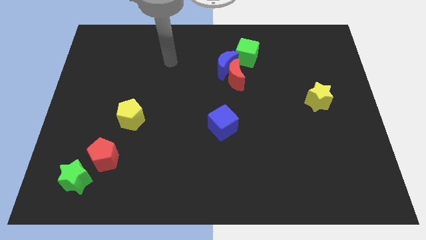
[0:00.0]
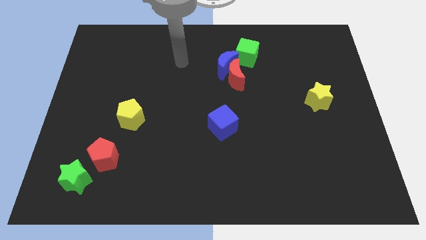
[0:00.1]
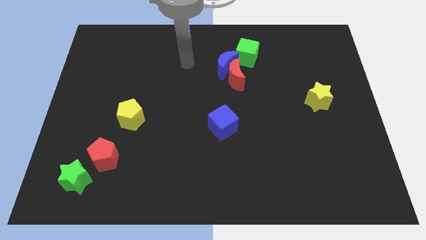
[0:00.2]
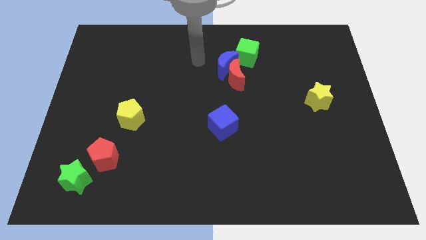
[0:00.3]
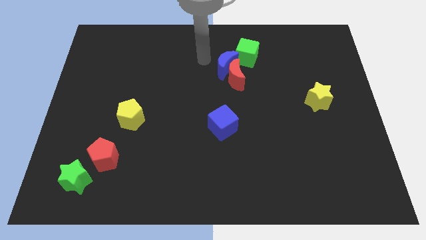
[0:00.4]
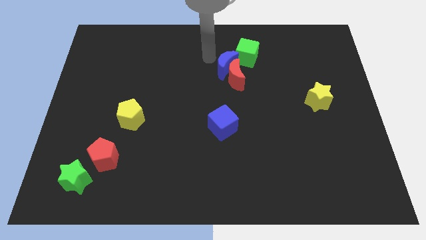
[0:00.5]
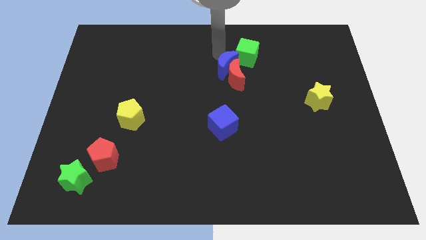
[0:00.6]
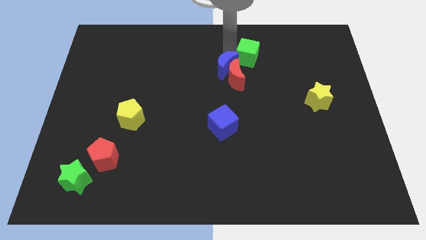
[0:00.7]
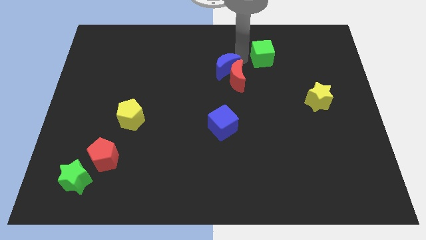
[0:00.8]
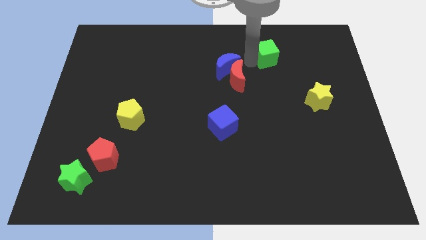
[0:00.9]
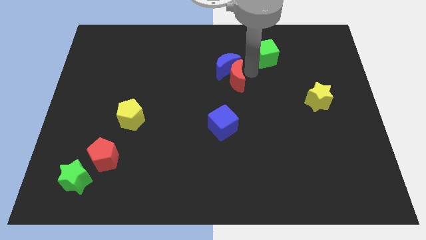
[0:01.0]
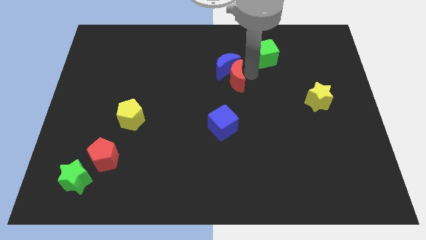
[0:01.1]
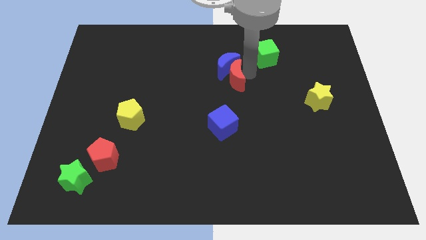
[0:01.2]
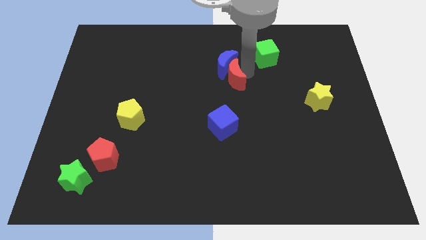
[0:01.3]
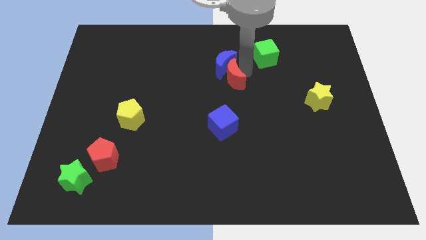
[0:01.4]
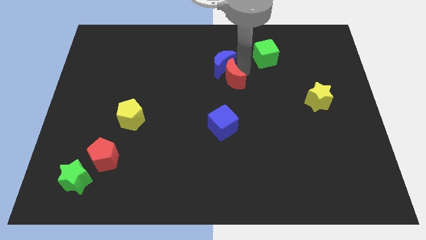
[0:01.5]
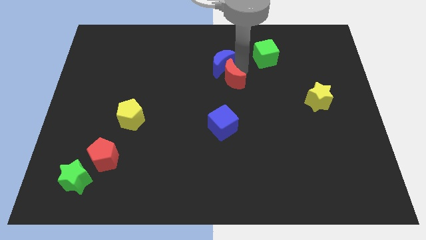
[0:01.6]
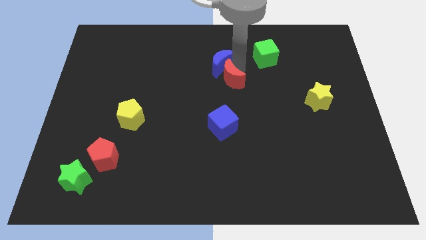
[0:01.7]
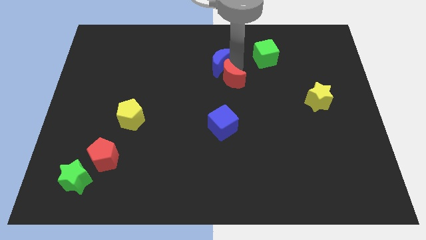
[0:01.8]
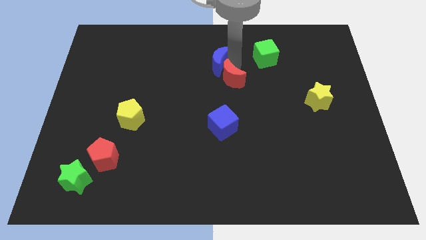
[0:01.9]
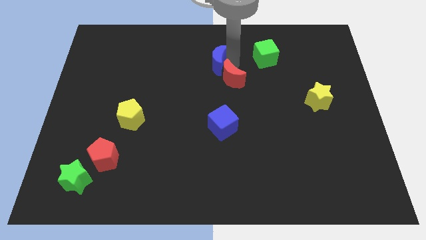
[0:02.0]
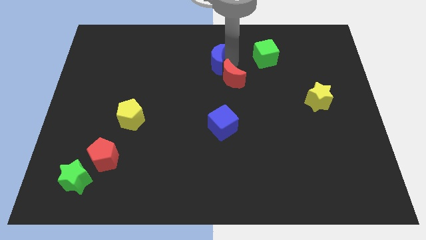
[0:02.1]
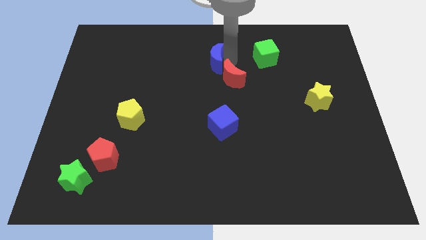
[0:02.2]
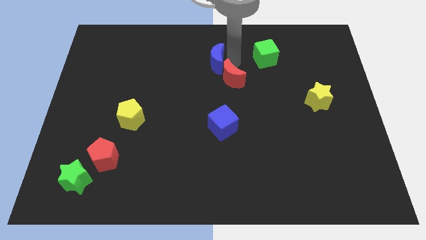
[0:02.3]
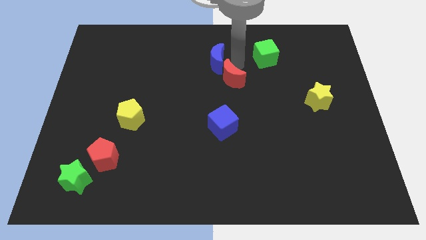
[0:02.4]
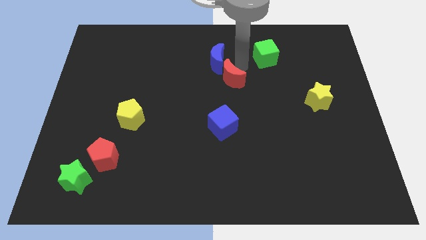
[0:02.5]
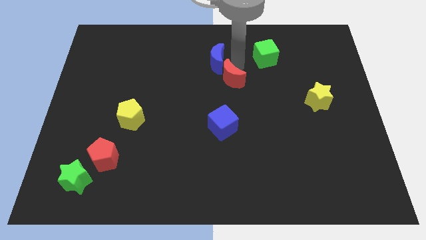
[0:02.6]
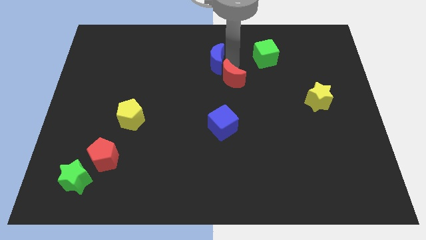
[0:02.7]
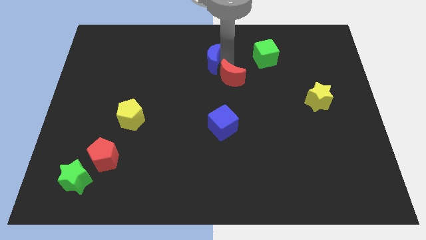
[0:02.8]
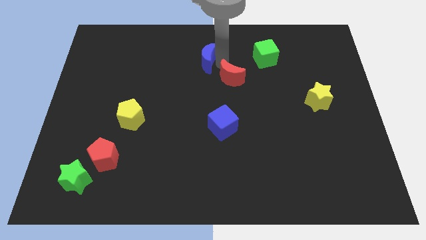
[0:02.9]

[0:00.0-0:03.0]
pull the blue moon apart from the red moon and green cube

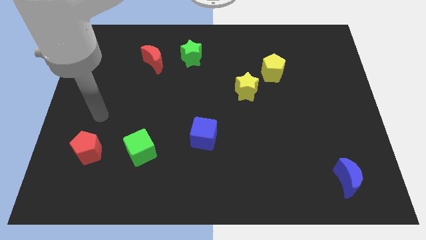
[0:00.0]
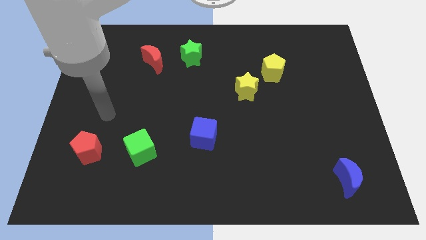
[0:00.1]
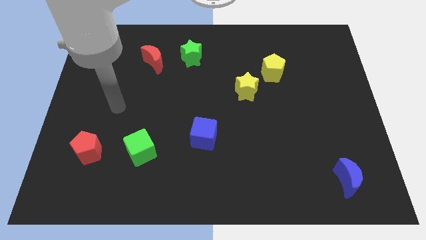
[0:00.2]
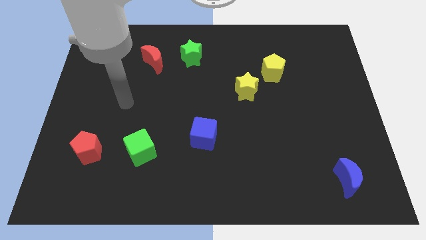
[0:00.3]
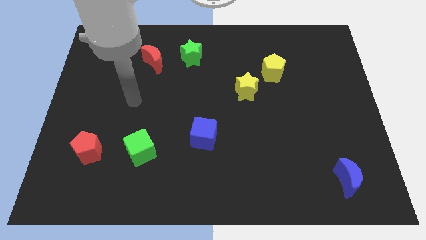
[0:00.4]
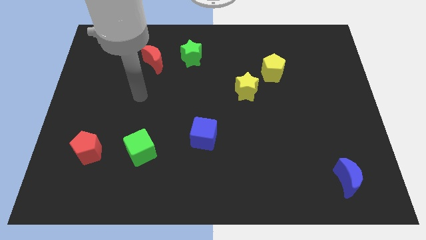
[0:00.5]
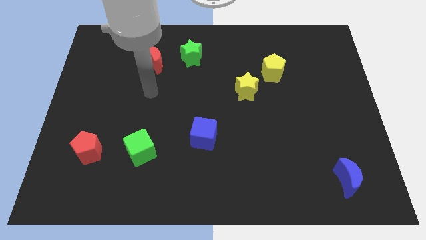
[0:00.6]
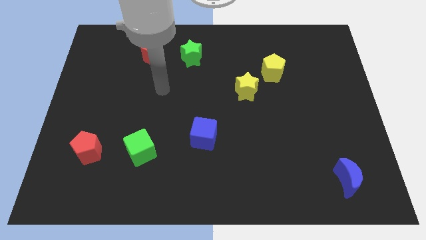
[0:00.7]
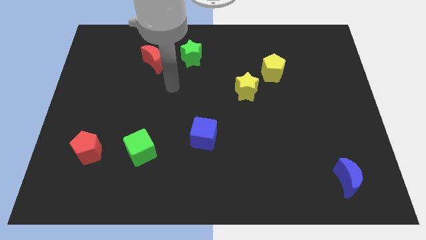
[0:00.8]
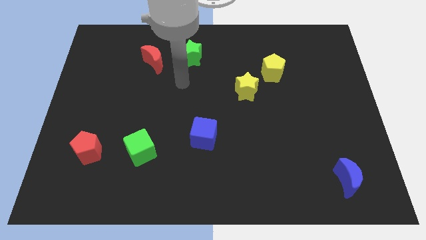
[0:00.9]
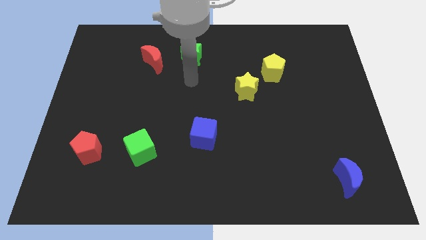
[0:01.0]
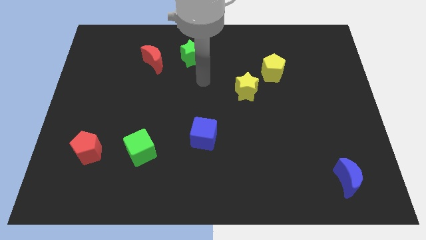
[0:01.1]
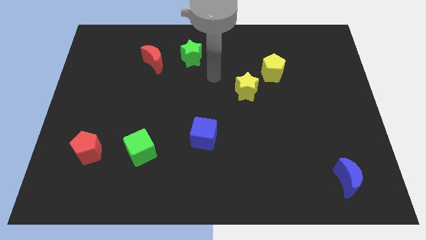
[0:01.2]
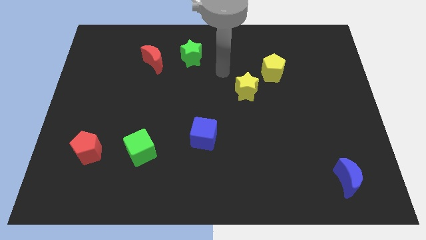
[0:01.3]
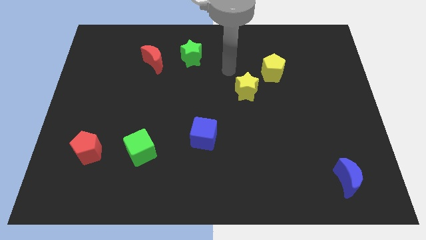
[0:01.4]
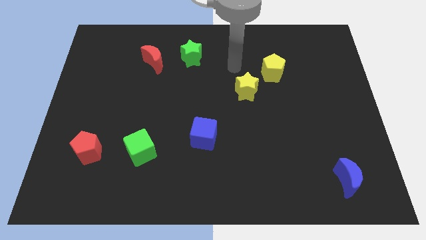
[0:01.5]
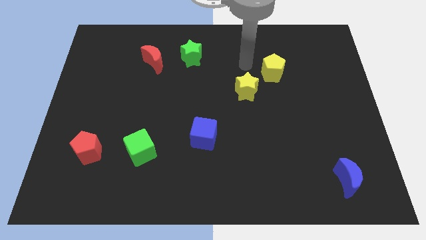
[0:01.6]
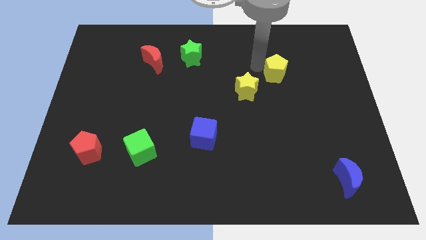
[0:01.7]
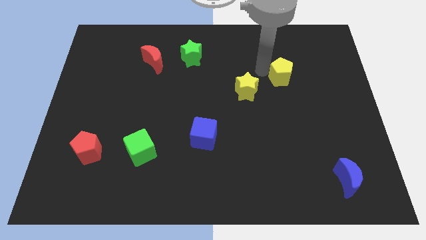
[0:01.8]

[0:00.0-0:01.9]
pull the yellow star apart from the yellow pentagon

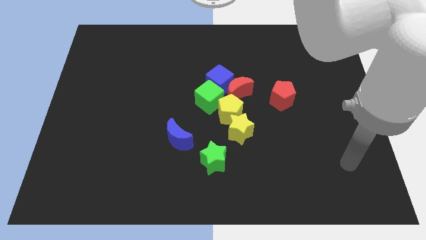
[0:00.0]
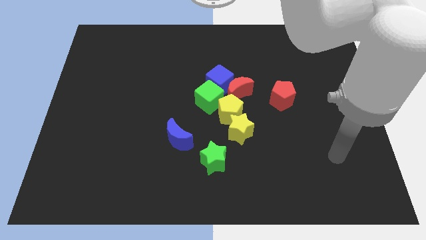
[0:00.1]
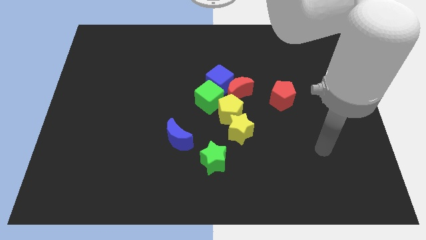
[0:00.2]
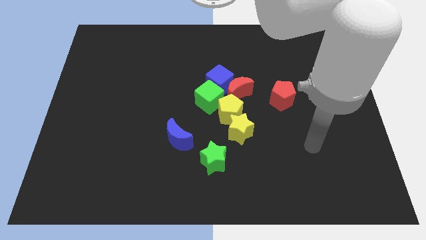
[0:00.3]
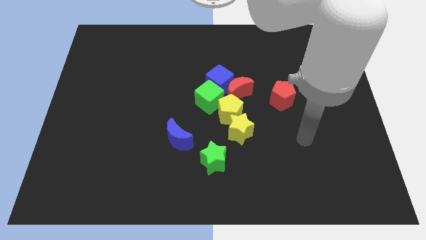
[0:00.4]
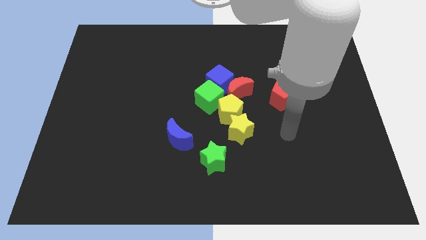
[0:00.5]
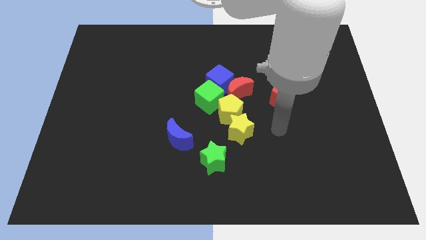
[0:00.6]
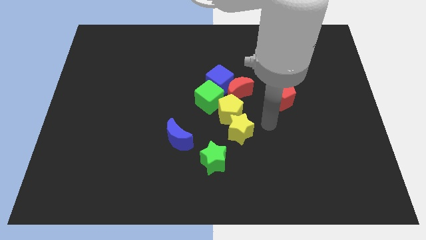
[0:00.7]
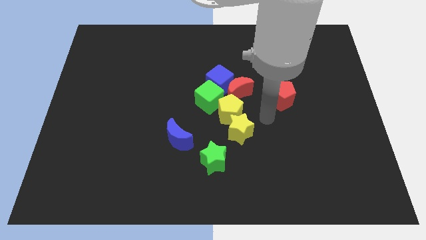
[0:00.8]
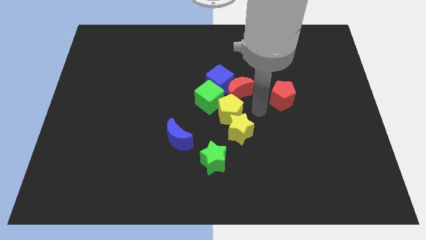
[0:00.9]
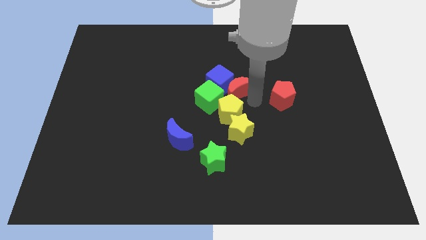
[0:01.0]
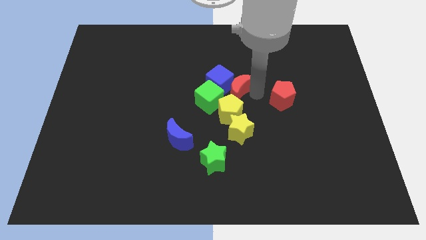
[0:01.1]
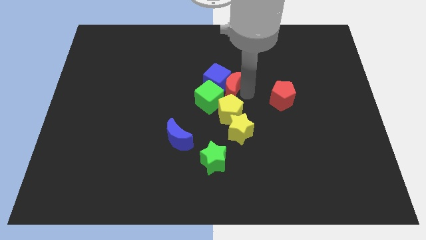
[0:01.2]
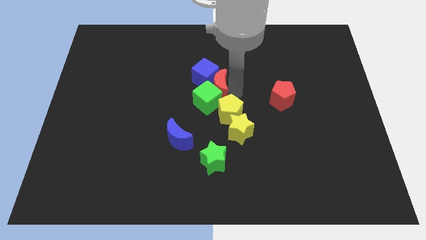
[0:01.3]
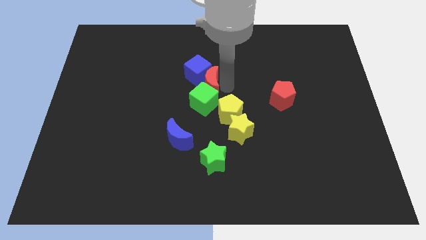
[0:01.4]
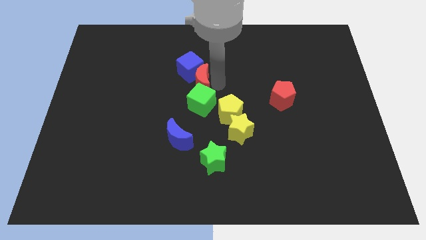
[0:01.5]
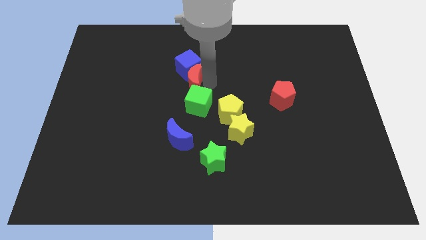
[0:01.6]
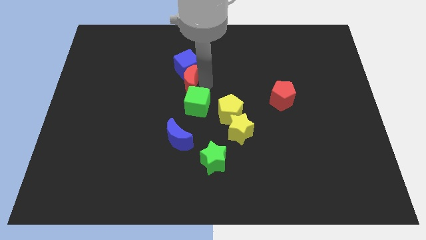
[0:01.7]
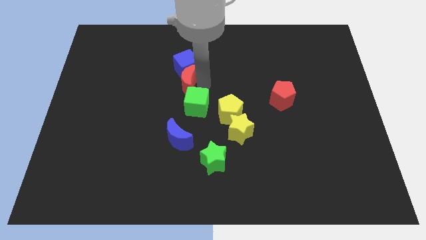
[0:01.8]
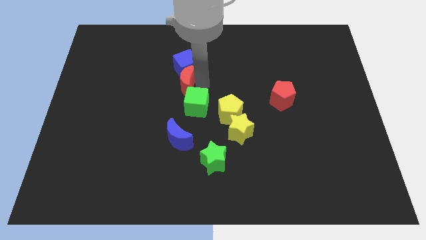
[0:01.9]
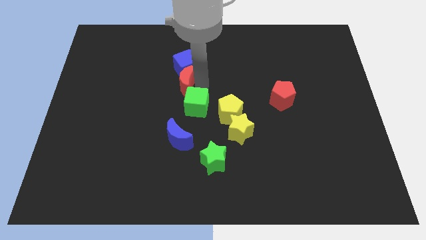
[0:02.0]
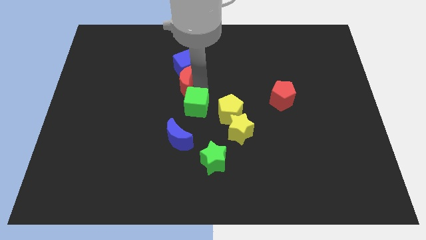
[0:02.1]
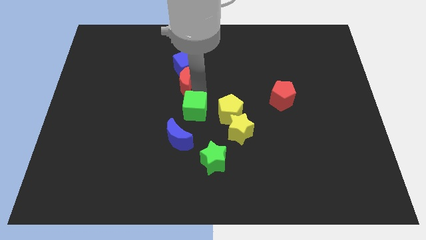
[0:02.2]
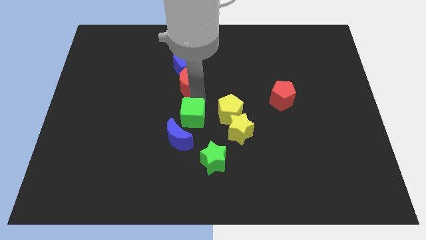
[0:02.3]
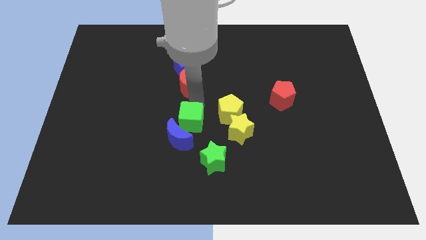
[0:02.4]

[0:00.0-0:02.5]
separate the green cube from the blue cube, yellow pentagon, and red moon

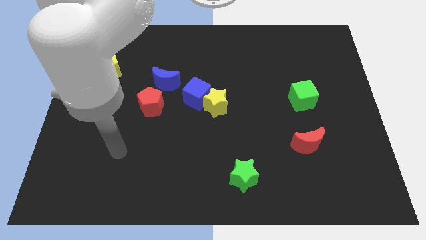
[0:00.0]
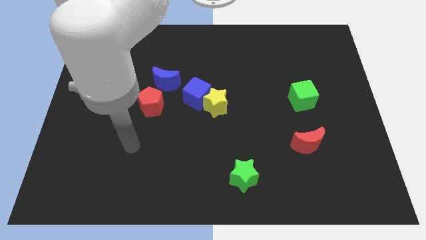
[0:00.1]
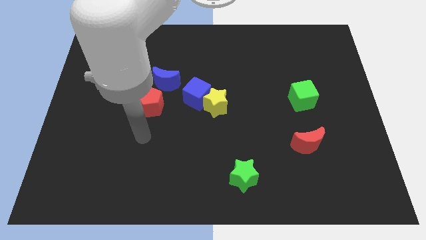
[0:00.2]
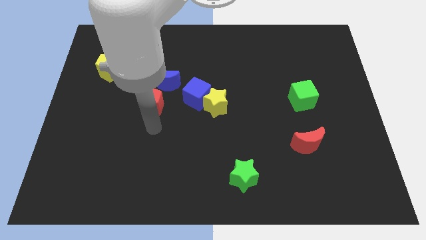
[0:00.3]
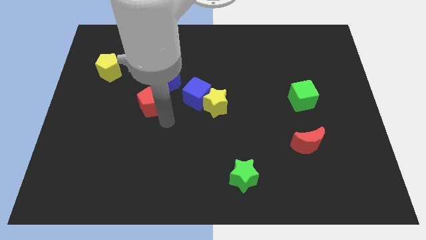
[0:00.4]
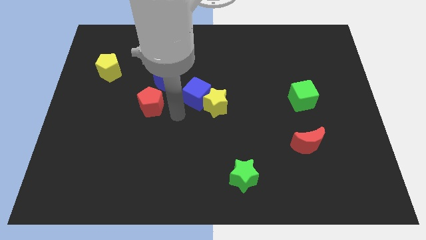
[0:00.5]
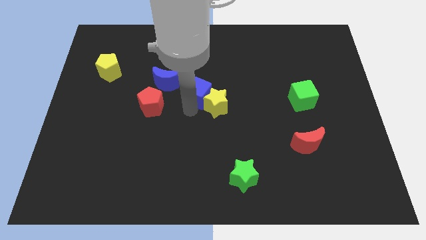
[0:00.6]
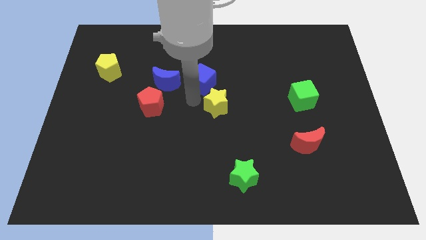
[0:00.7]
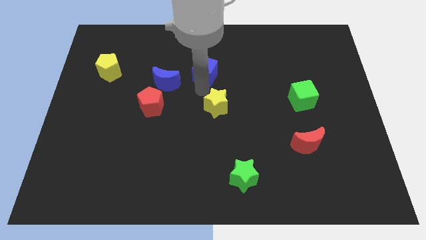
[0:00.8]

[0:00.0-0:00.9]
pull the yellow star apart from the blue cube

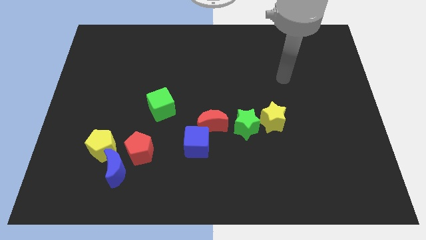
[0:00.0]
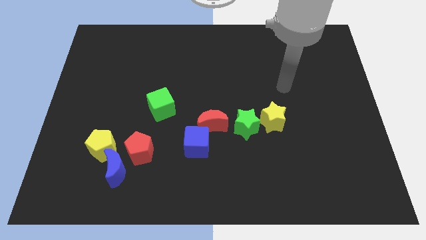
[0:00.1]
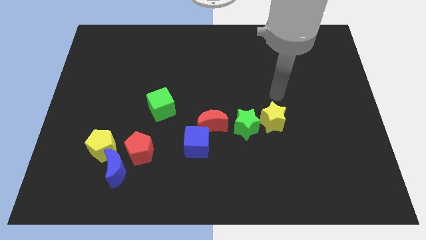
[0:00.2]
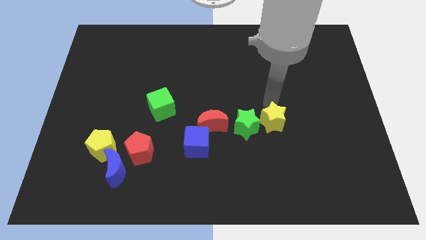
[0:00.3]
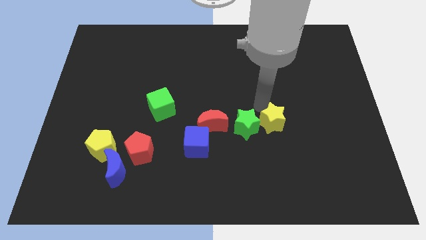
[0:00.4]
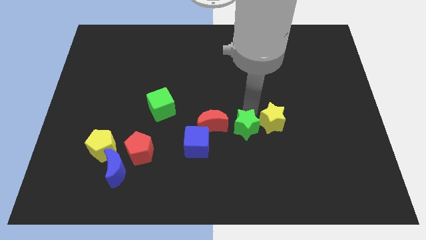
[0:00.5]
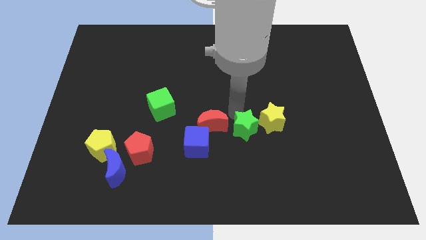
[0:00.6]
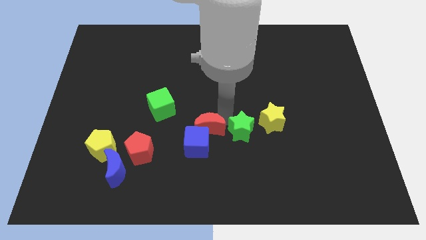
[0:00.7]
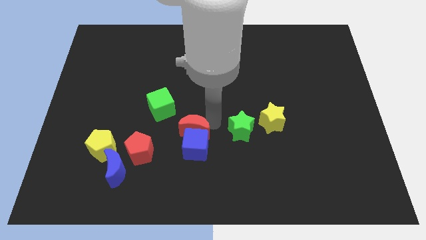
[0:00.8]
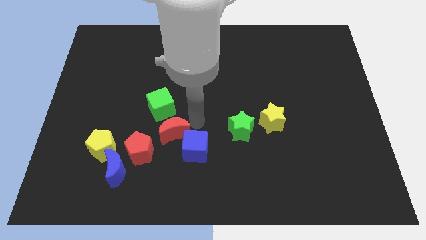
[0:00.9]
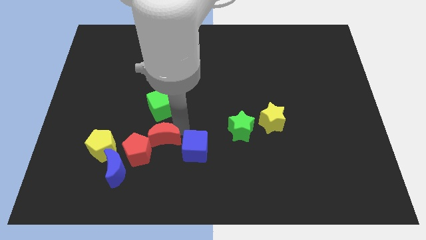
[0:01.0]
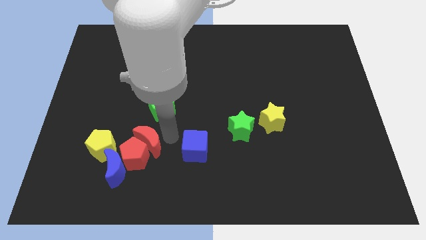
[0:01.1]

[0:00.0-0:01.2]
move the blue cube away from the red moon

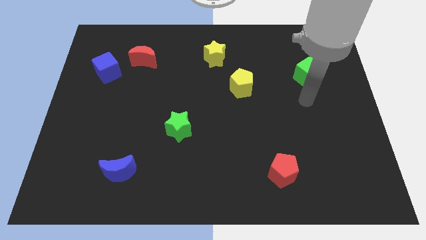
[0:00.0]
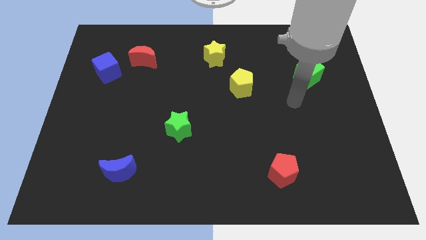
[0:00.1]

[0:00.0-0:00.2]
pull the red moon apart from the blue cube
